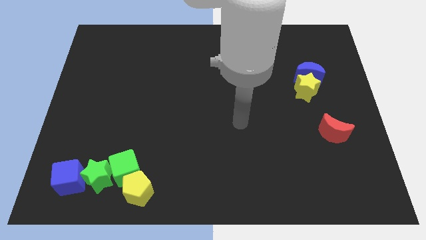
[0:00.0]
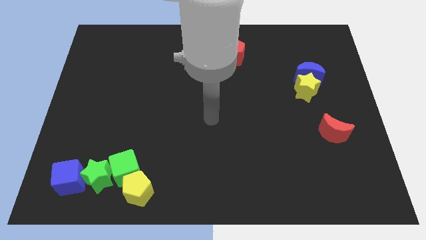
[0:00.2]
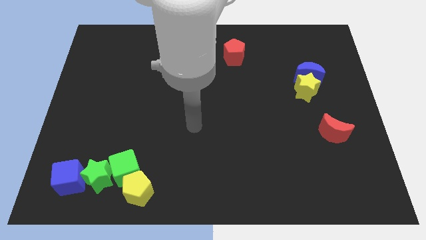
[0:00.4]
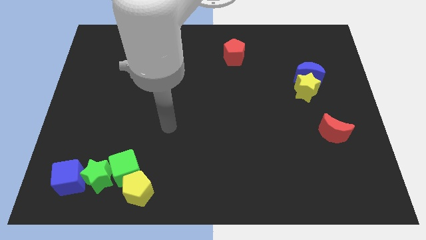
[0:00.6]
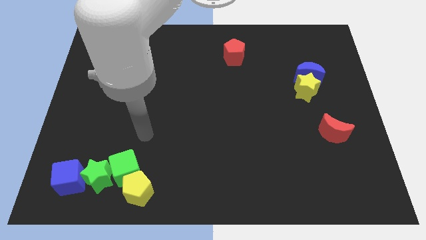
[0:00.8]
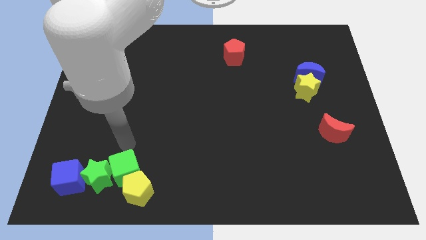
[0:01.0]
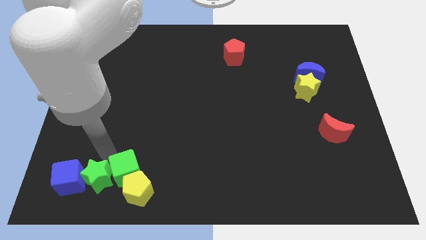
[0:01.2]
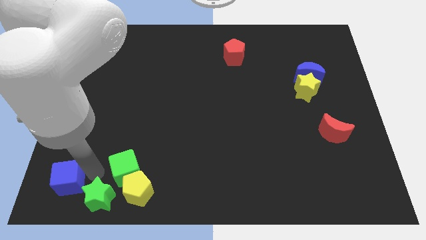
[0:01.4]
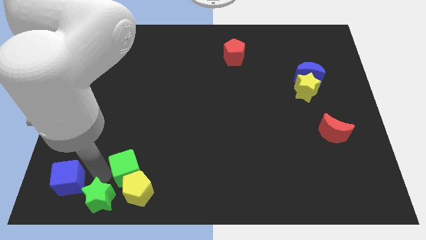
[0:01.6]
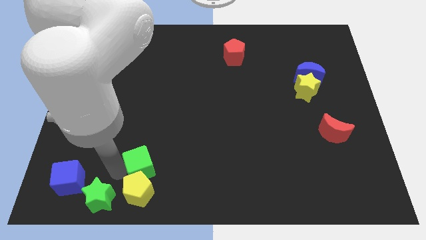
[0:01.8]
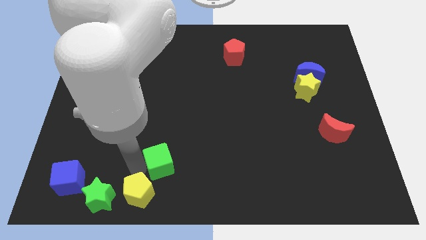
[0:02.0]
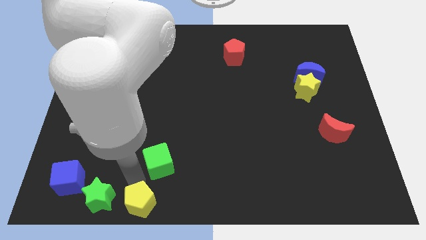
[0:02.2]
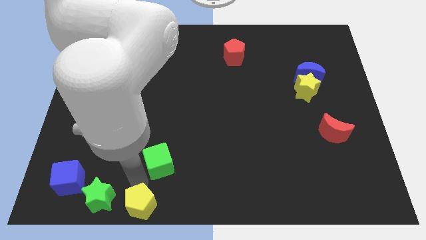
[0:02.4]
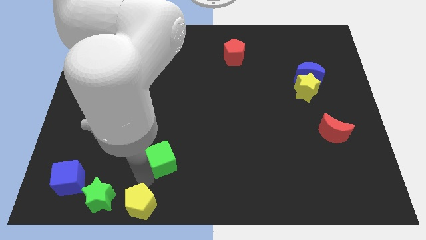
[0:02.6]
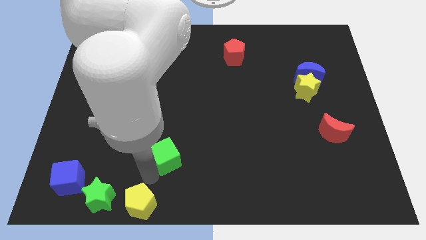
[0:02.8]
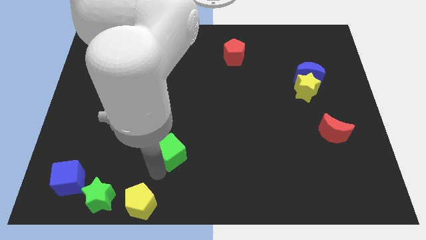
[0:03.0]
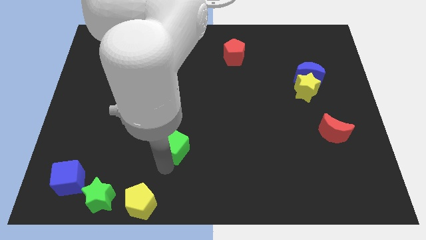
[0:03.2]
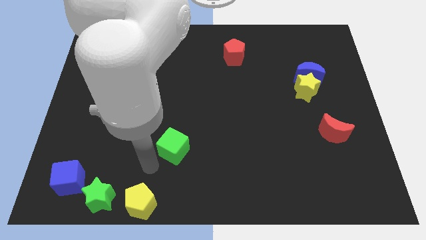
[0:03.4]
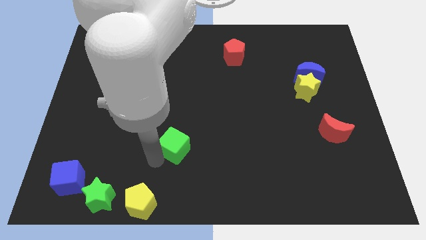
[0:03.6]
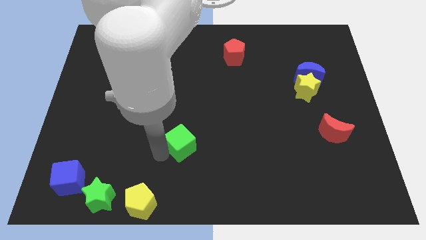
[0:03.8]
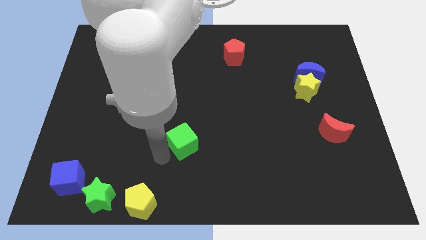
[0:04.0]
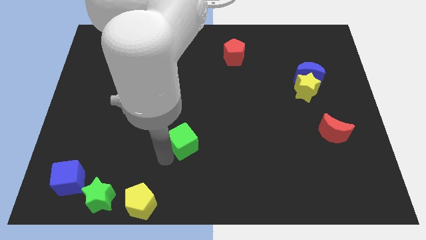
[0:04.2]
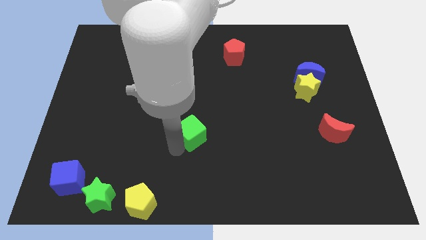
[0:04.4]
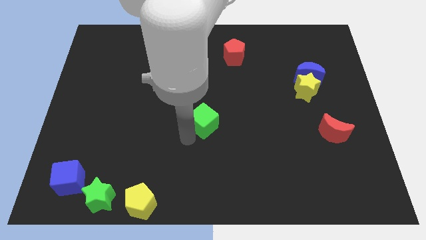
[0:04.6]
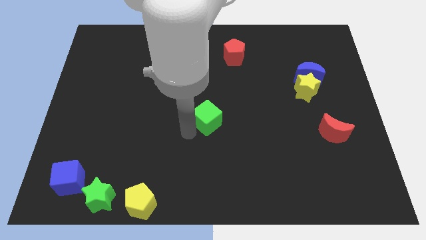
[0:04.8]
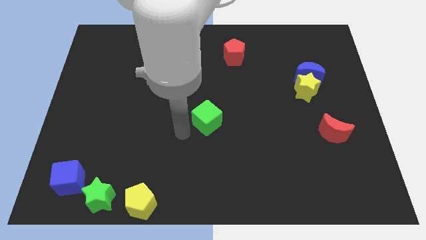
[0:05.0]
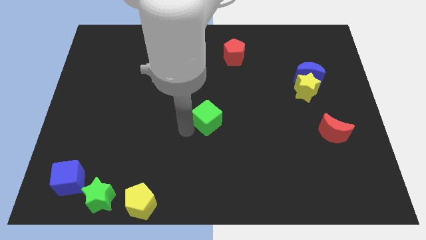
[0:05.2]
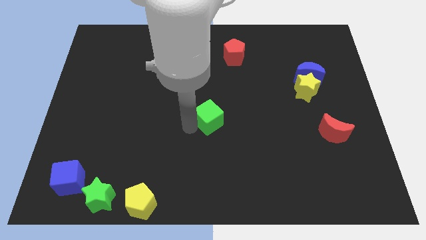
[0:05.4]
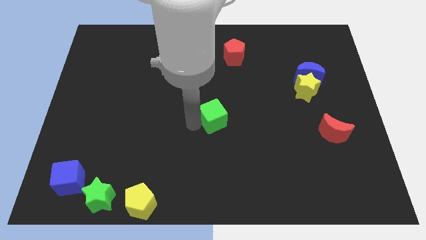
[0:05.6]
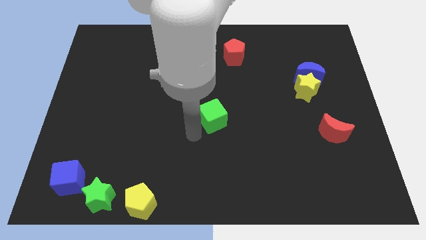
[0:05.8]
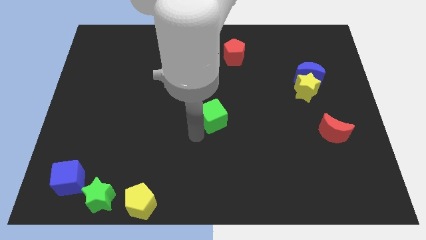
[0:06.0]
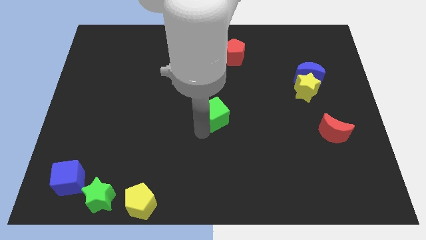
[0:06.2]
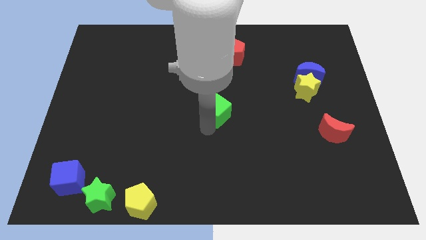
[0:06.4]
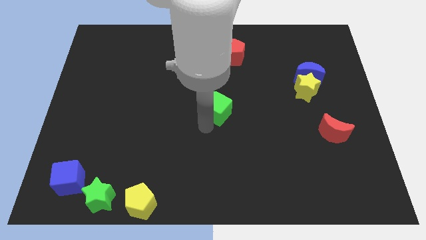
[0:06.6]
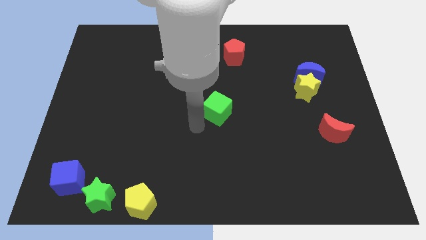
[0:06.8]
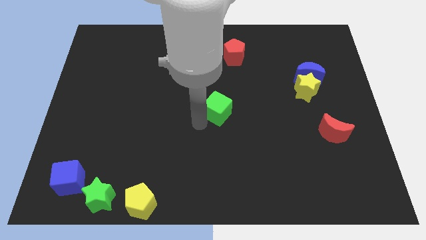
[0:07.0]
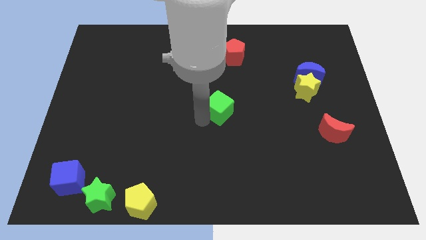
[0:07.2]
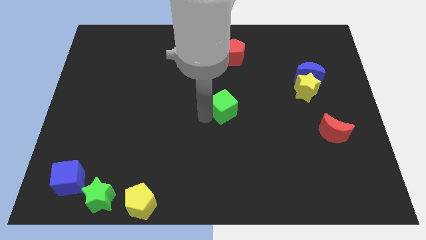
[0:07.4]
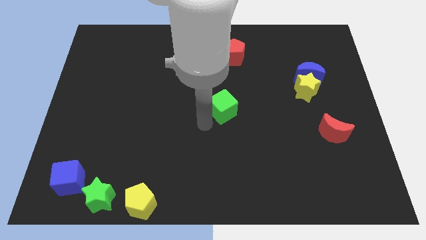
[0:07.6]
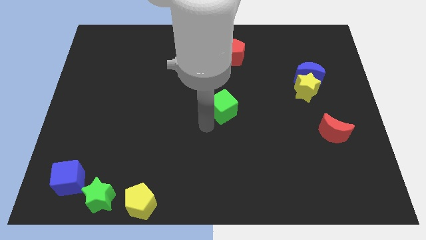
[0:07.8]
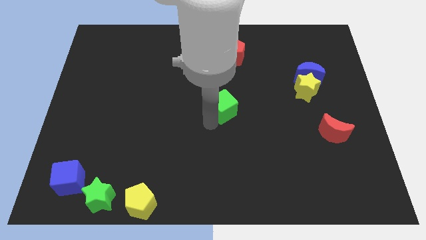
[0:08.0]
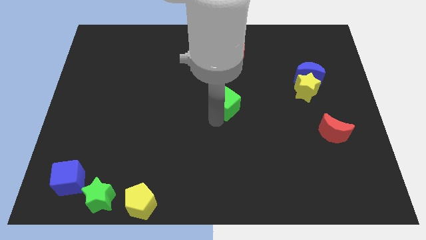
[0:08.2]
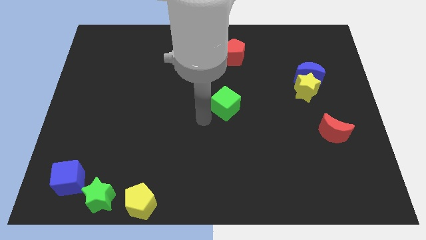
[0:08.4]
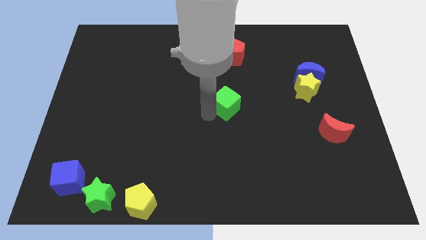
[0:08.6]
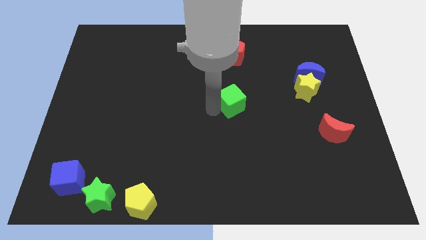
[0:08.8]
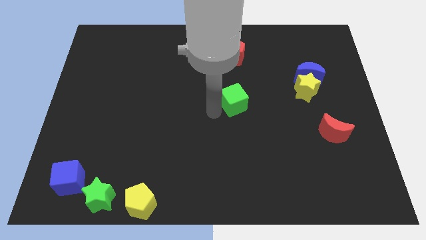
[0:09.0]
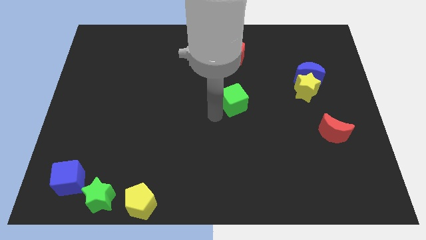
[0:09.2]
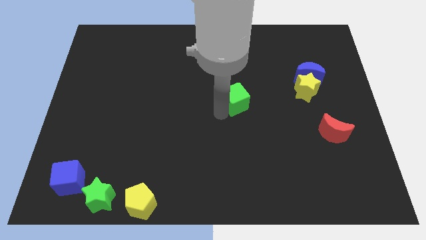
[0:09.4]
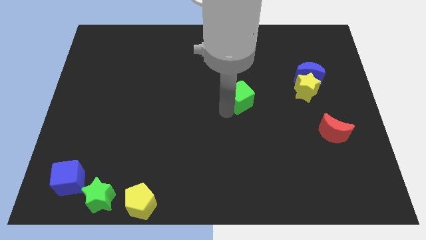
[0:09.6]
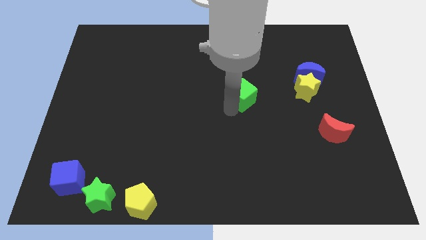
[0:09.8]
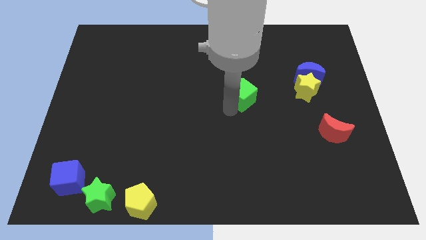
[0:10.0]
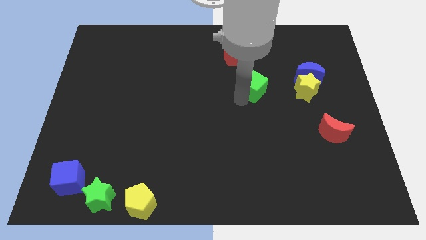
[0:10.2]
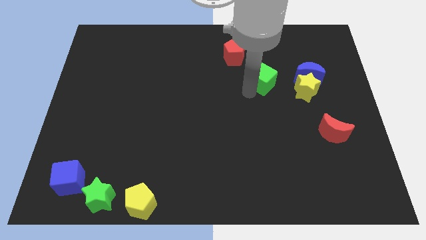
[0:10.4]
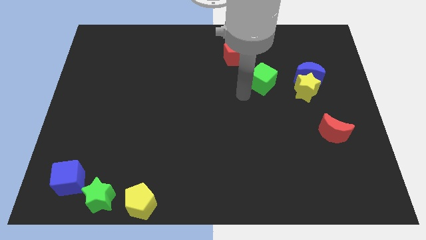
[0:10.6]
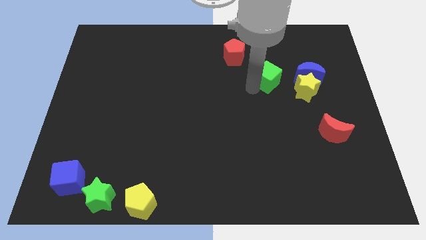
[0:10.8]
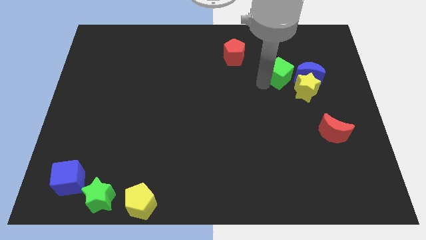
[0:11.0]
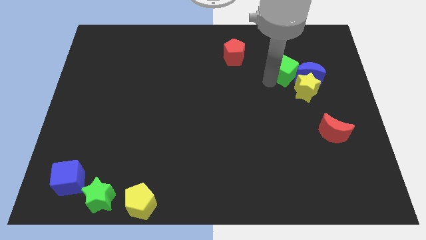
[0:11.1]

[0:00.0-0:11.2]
slide the green cube to the top left side of the blue moon

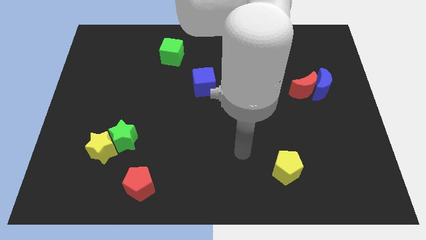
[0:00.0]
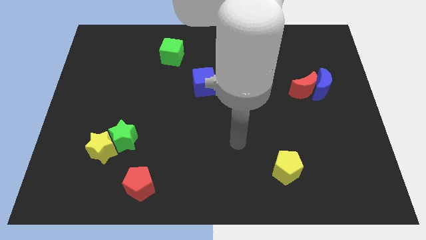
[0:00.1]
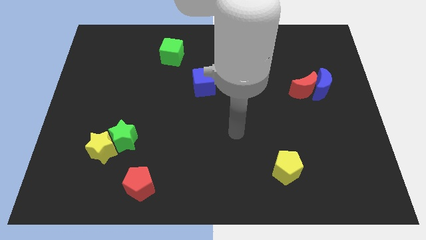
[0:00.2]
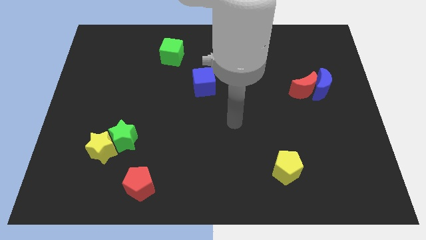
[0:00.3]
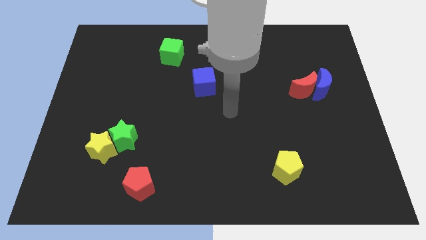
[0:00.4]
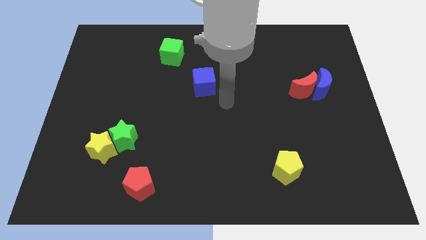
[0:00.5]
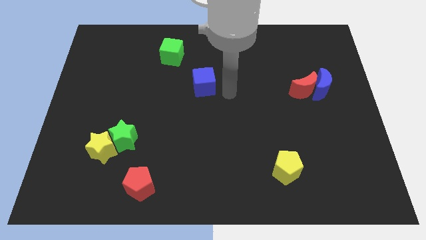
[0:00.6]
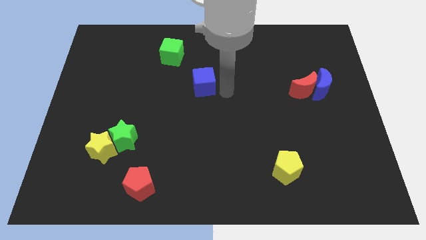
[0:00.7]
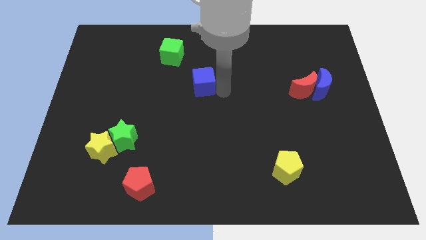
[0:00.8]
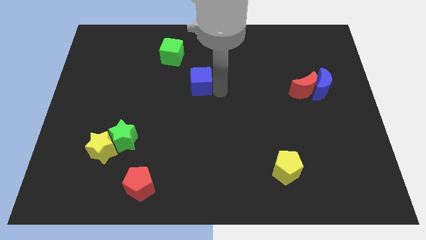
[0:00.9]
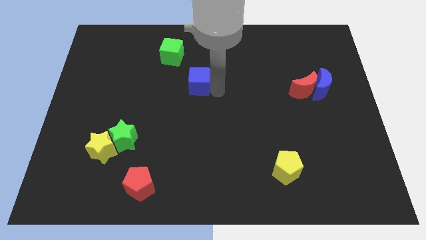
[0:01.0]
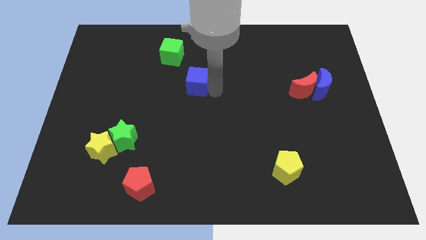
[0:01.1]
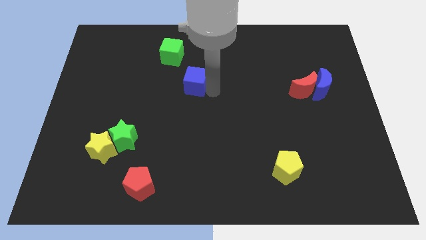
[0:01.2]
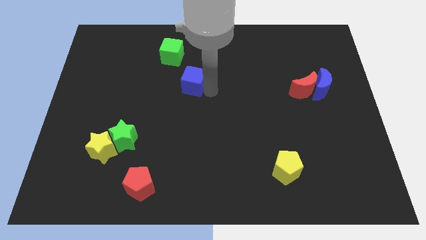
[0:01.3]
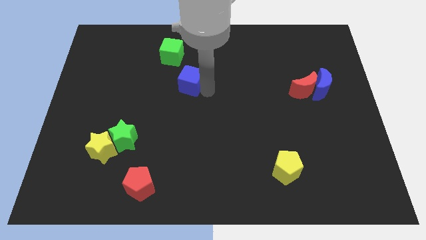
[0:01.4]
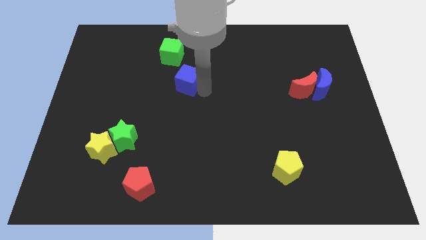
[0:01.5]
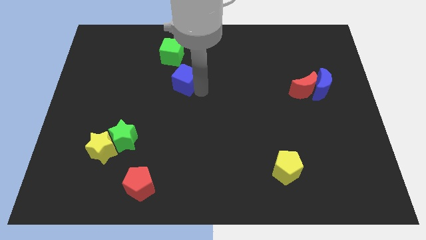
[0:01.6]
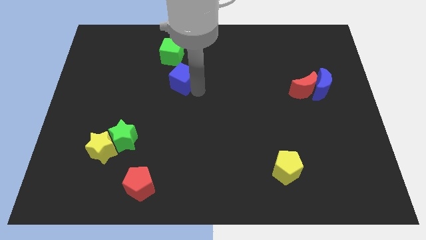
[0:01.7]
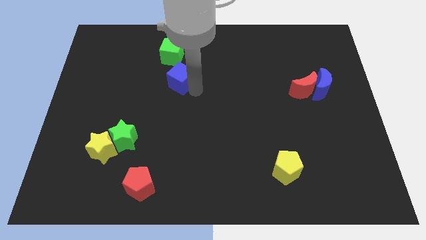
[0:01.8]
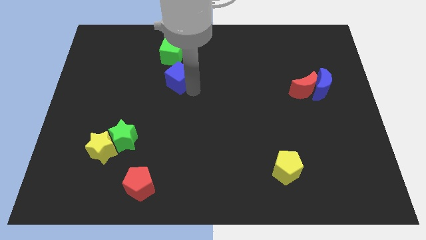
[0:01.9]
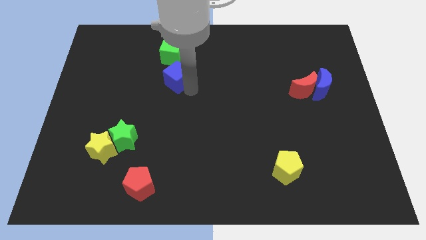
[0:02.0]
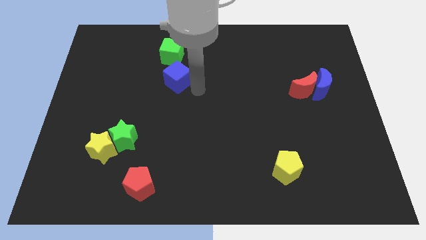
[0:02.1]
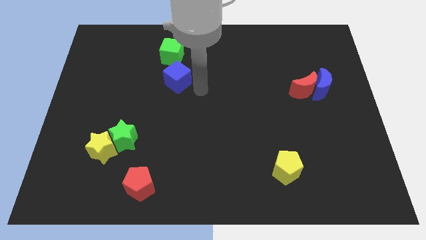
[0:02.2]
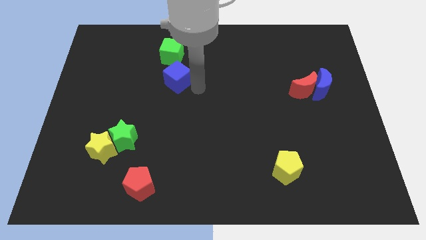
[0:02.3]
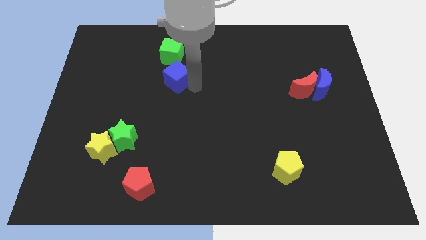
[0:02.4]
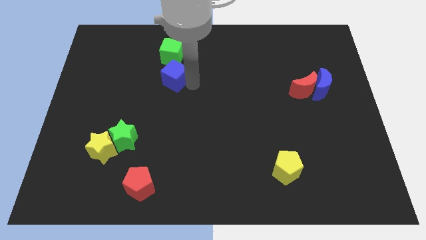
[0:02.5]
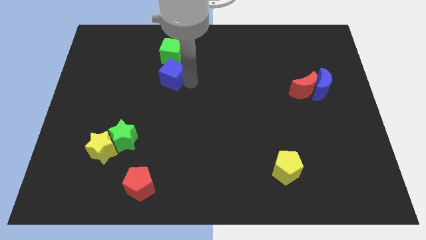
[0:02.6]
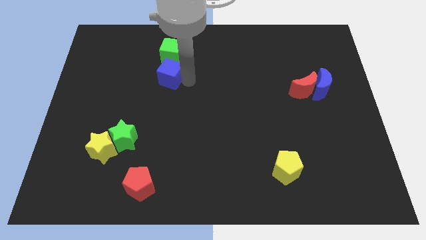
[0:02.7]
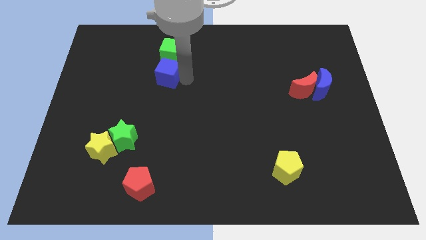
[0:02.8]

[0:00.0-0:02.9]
put the blue cube to the bottom left side of the green cube
